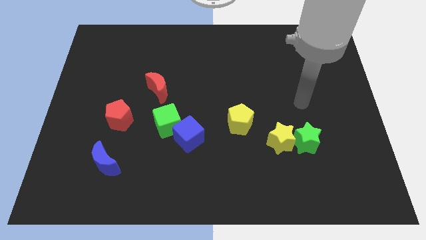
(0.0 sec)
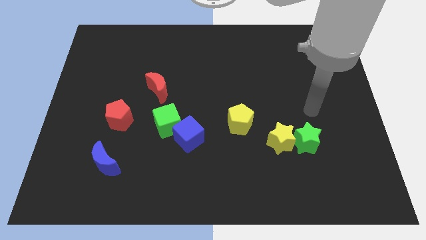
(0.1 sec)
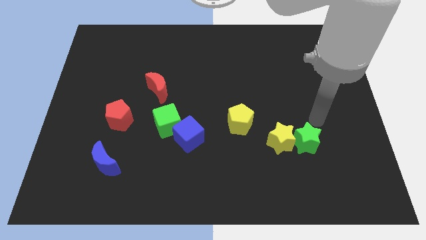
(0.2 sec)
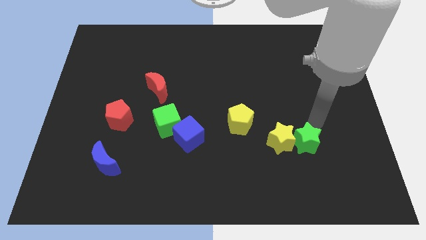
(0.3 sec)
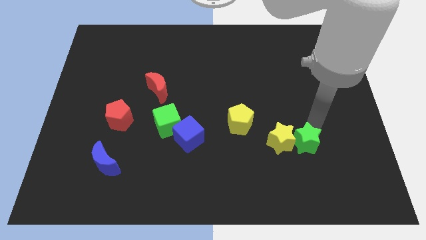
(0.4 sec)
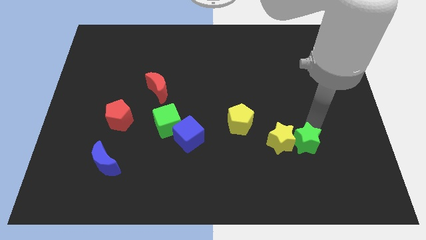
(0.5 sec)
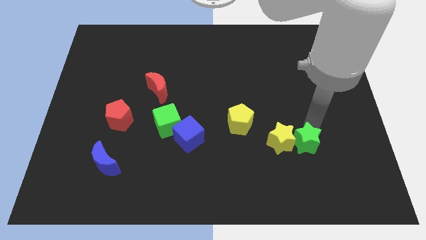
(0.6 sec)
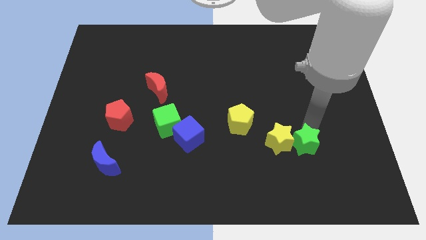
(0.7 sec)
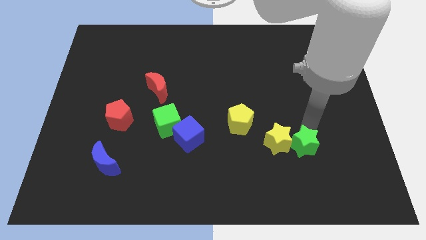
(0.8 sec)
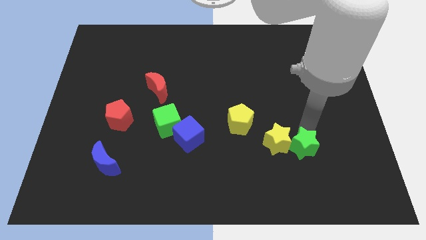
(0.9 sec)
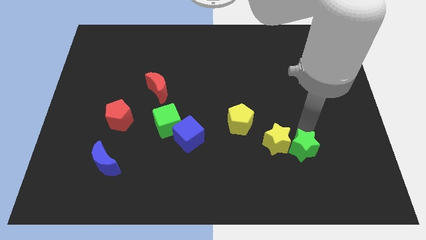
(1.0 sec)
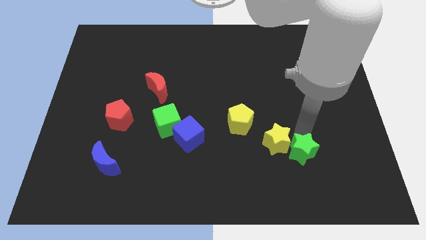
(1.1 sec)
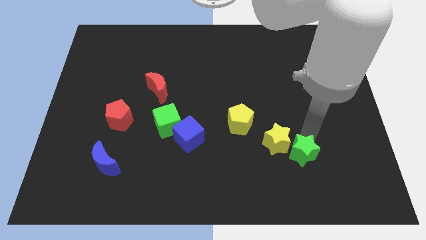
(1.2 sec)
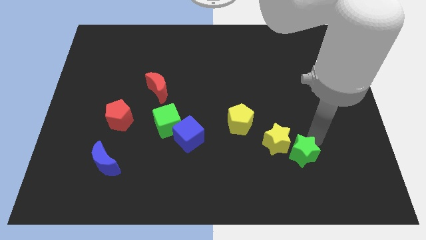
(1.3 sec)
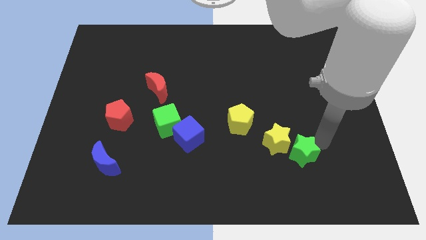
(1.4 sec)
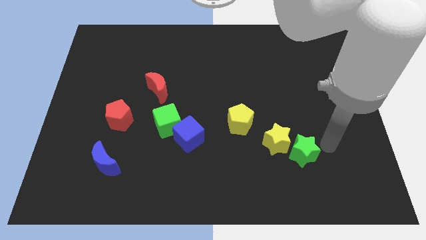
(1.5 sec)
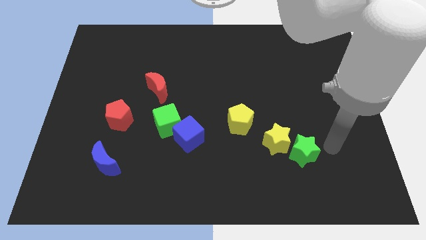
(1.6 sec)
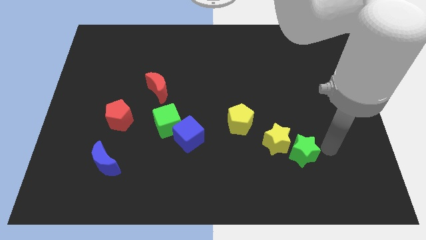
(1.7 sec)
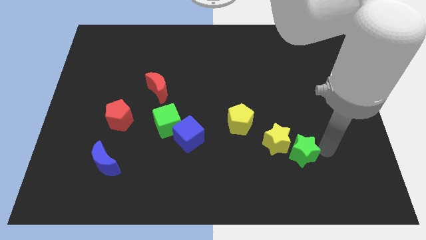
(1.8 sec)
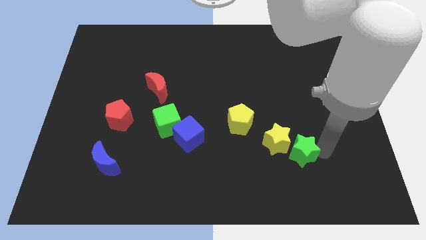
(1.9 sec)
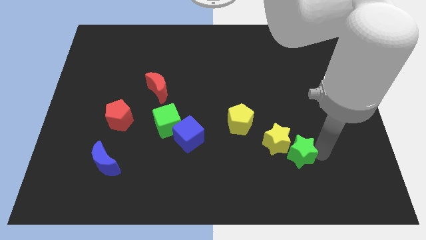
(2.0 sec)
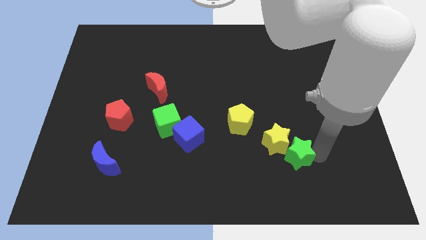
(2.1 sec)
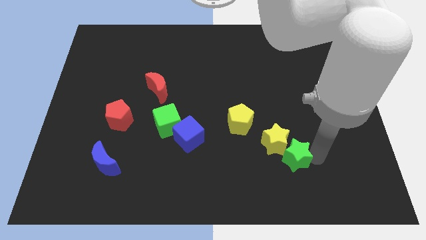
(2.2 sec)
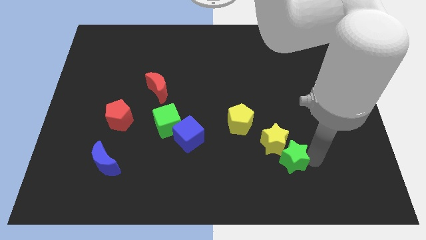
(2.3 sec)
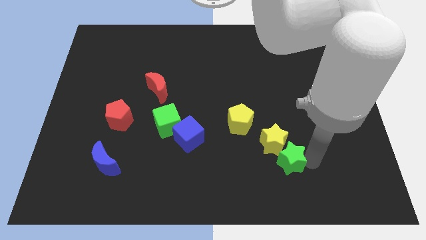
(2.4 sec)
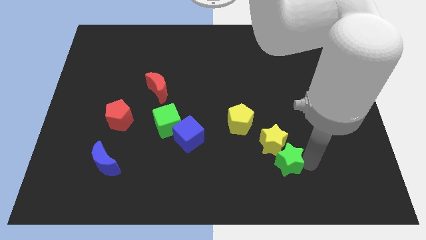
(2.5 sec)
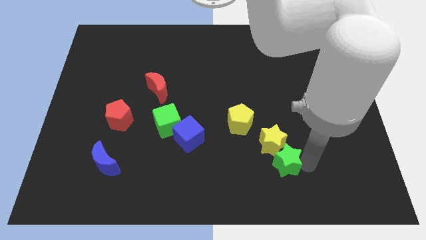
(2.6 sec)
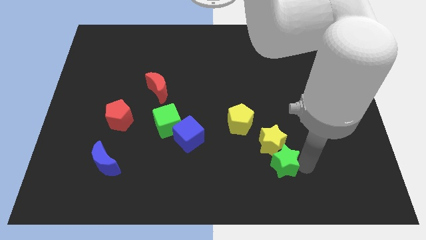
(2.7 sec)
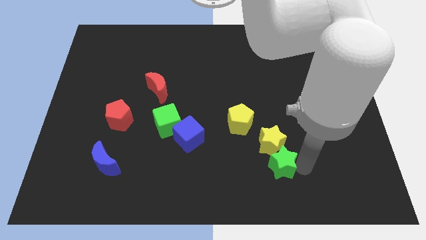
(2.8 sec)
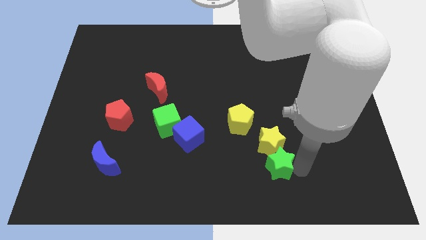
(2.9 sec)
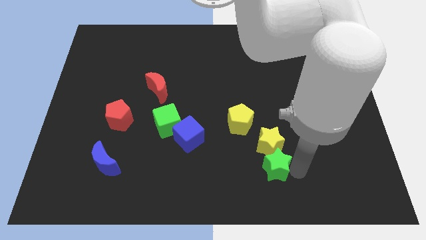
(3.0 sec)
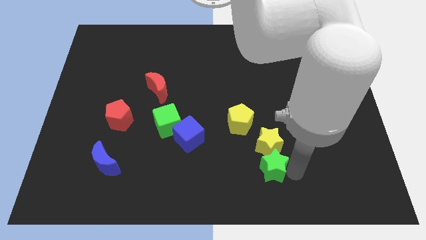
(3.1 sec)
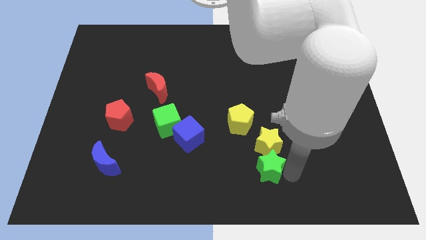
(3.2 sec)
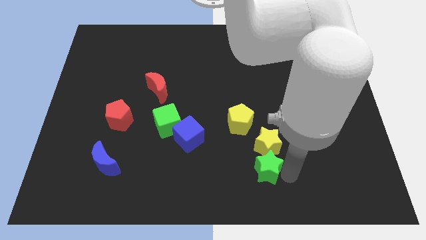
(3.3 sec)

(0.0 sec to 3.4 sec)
slide the green star somewhat left

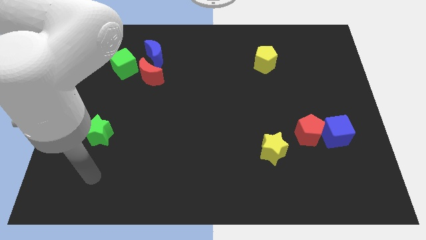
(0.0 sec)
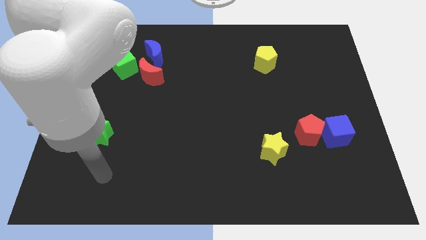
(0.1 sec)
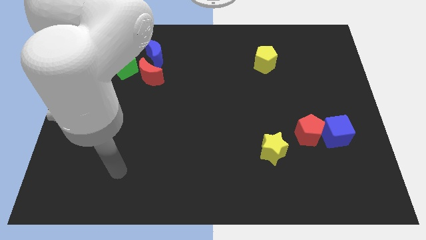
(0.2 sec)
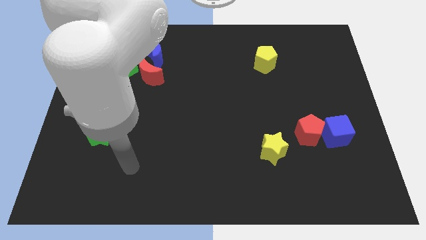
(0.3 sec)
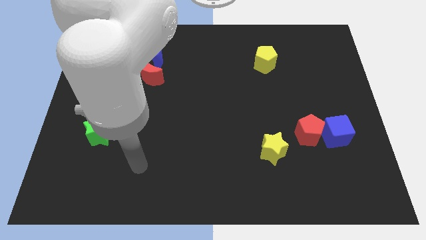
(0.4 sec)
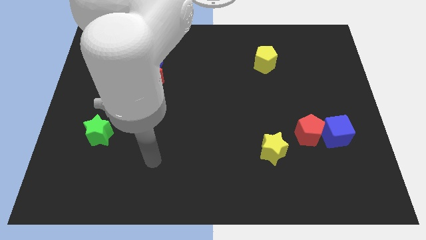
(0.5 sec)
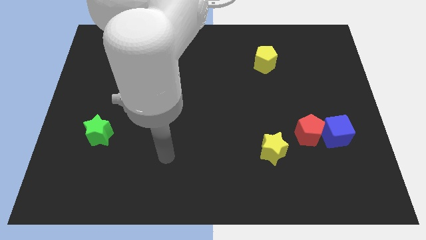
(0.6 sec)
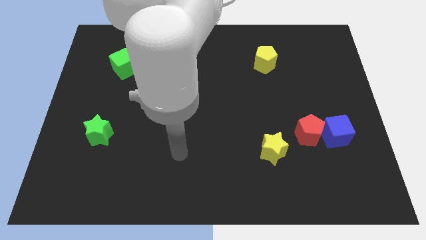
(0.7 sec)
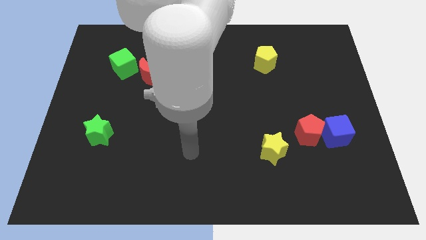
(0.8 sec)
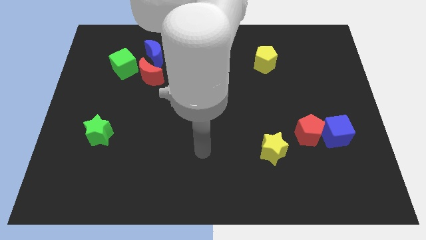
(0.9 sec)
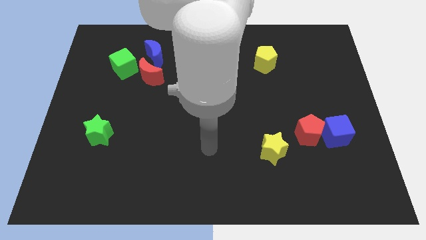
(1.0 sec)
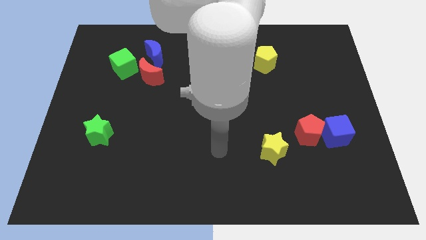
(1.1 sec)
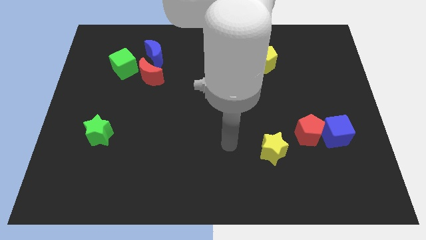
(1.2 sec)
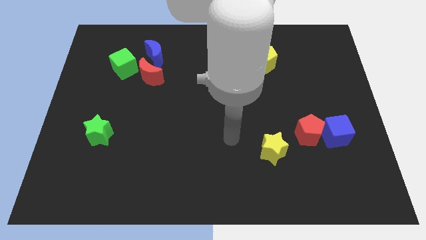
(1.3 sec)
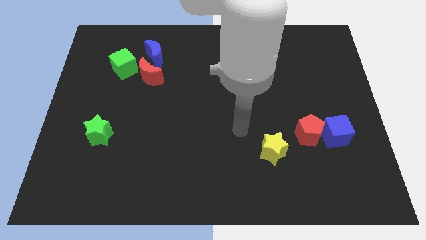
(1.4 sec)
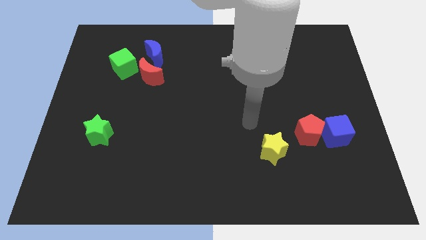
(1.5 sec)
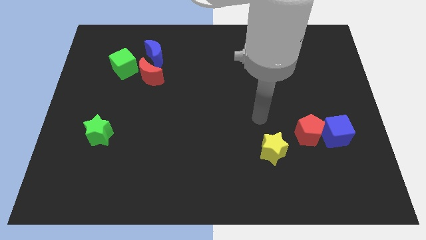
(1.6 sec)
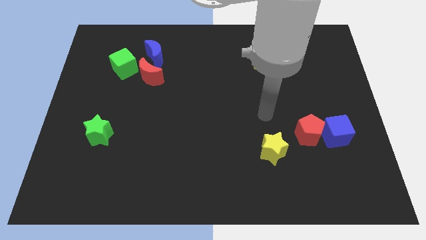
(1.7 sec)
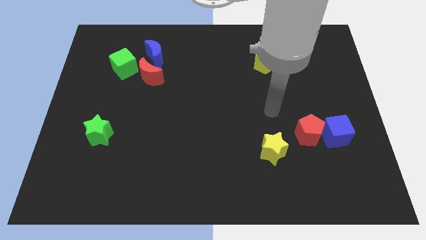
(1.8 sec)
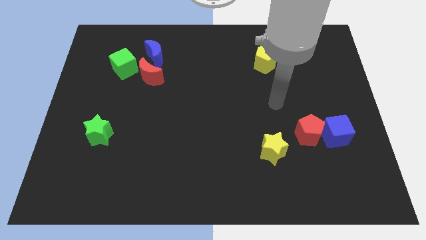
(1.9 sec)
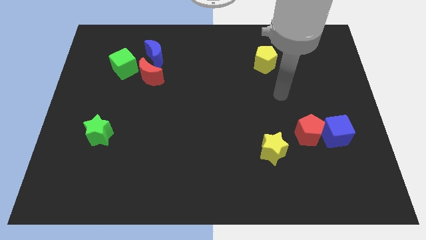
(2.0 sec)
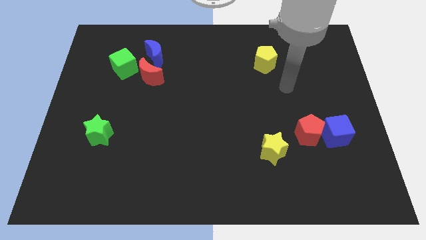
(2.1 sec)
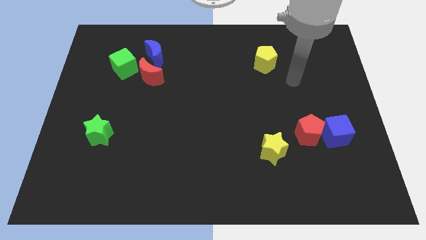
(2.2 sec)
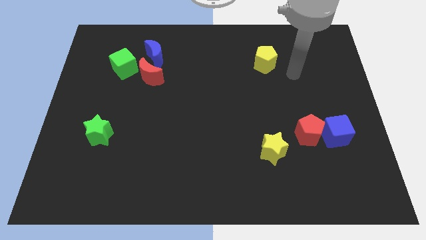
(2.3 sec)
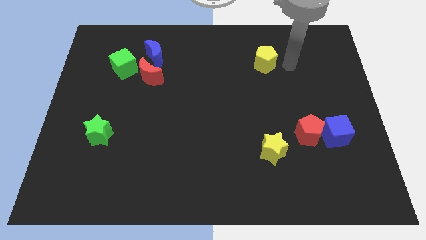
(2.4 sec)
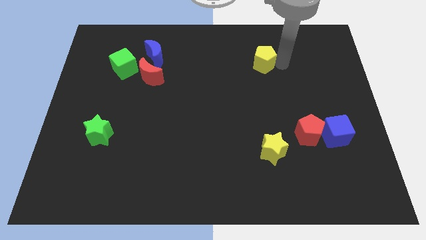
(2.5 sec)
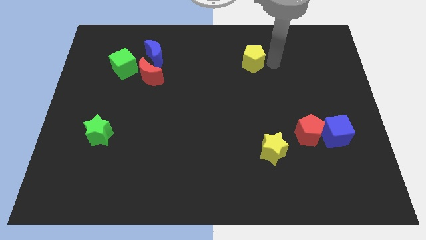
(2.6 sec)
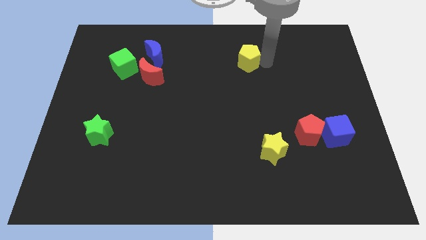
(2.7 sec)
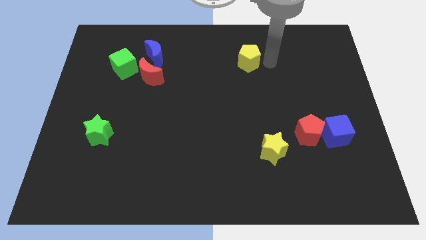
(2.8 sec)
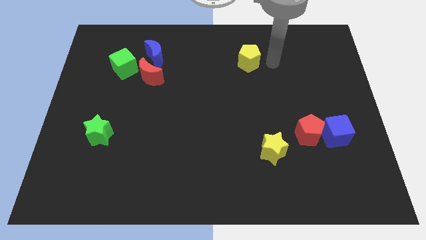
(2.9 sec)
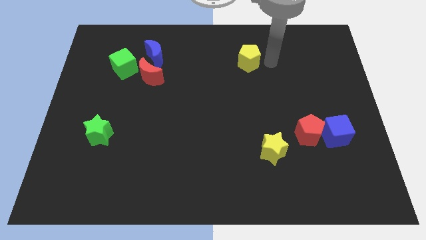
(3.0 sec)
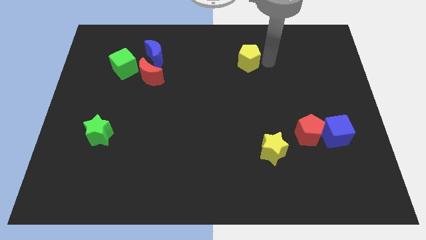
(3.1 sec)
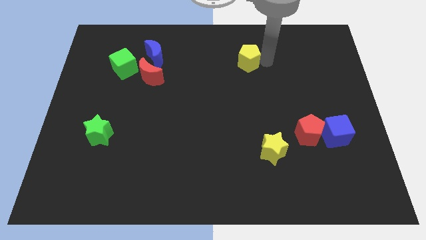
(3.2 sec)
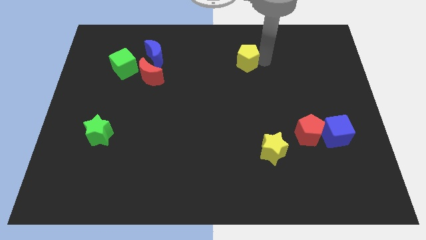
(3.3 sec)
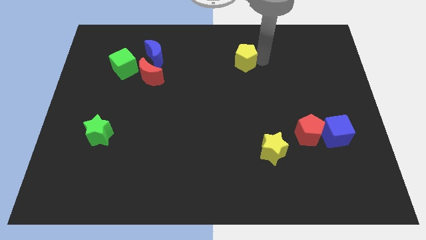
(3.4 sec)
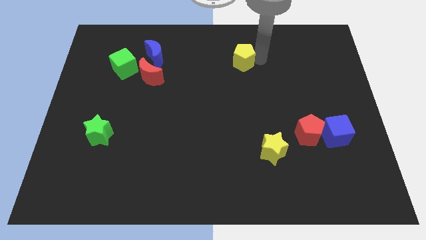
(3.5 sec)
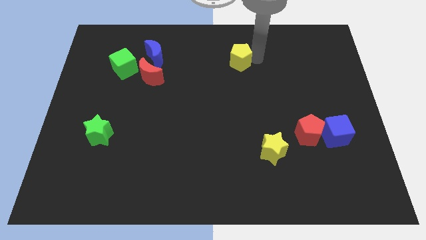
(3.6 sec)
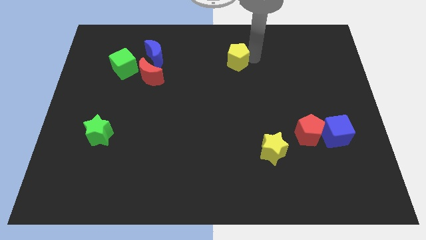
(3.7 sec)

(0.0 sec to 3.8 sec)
move the yellow pentagon somewhat left

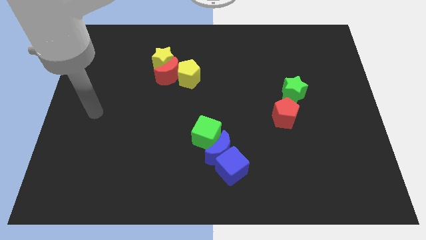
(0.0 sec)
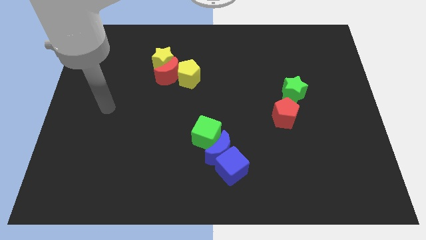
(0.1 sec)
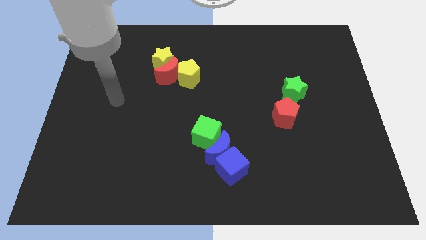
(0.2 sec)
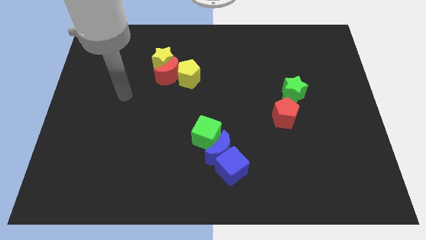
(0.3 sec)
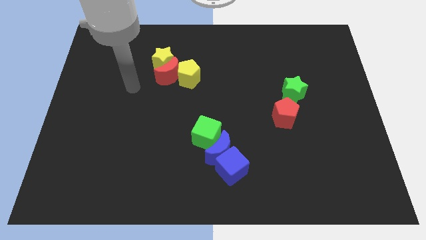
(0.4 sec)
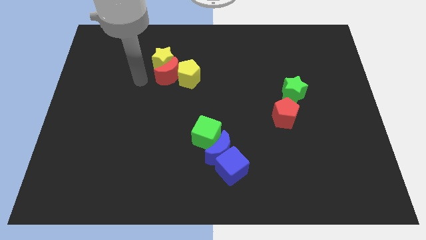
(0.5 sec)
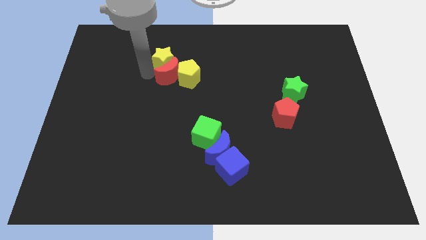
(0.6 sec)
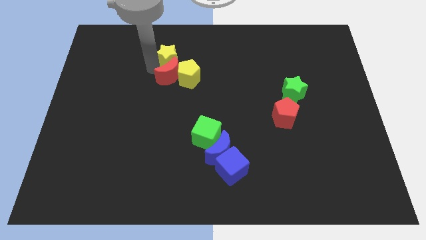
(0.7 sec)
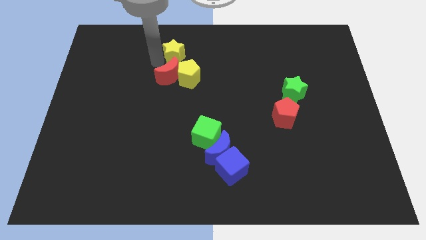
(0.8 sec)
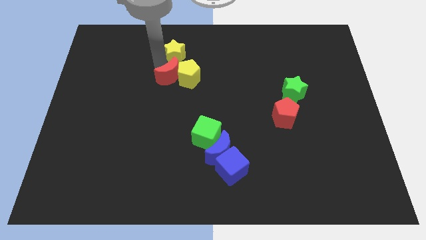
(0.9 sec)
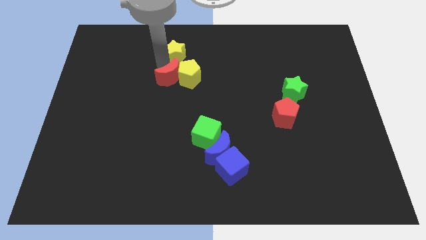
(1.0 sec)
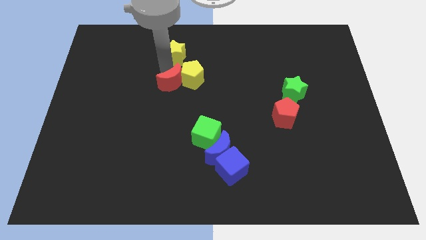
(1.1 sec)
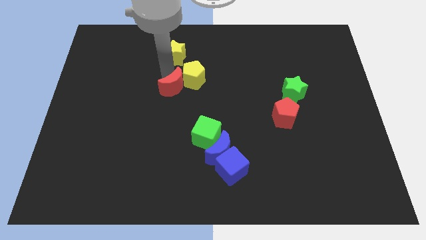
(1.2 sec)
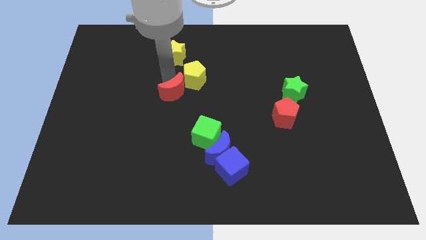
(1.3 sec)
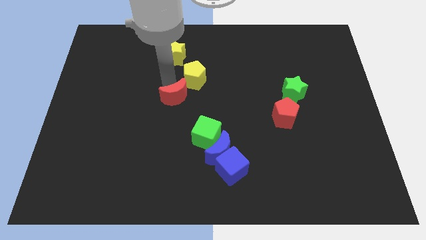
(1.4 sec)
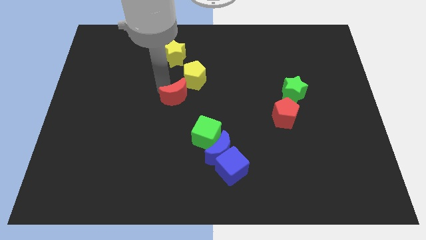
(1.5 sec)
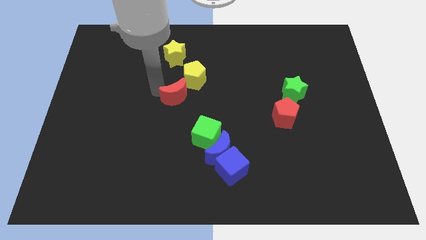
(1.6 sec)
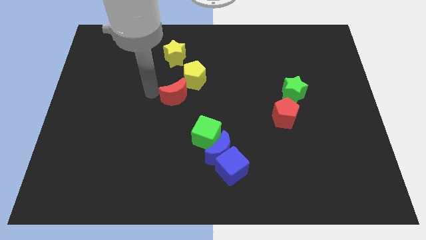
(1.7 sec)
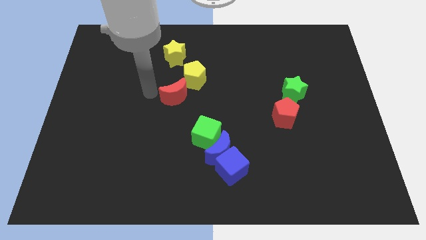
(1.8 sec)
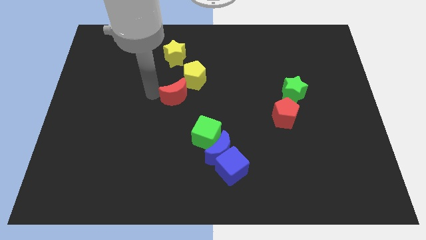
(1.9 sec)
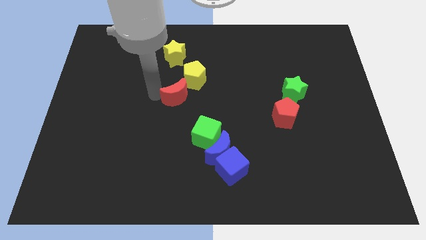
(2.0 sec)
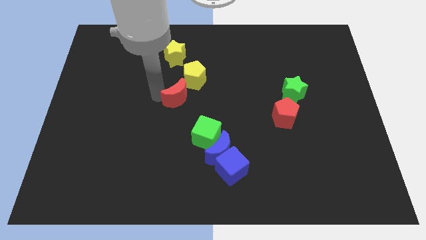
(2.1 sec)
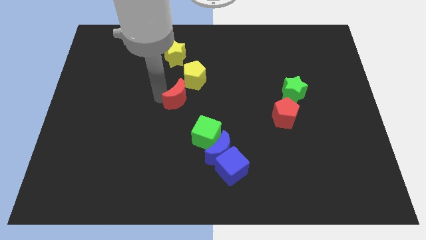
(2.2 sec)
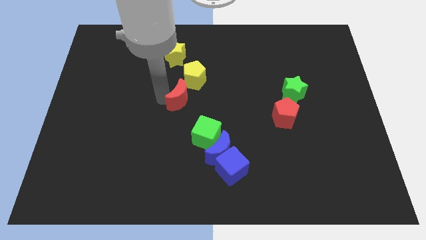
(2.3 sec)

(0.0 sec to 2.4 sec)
push the red moon downwards and right diagonally a bit
